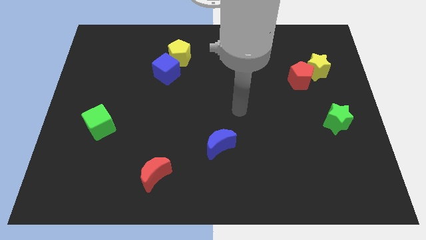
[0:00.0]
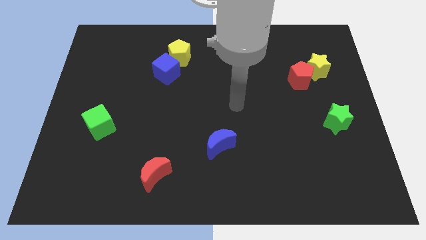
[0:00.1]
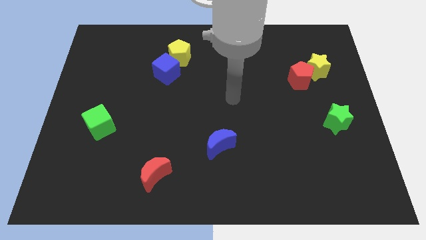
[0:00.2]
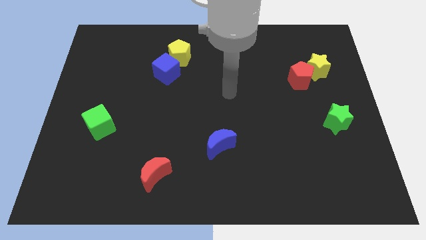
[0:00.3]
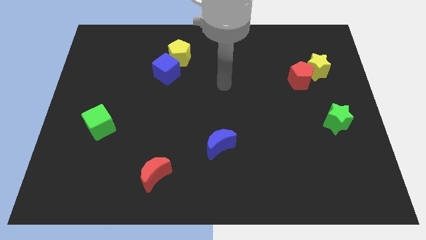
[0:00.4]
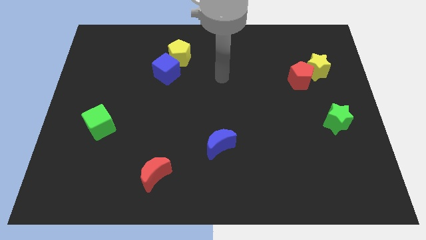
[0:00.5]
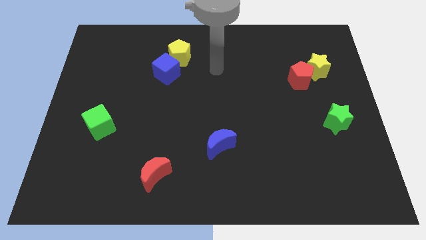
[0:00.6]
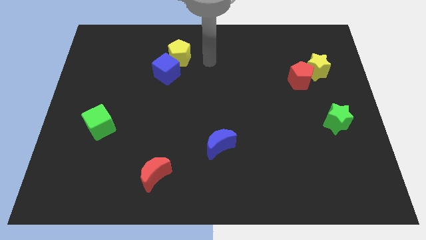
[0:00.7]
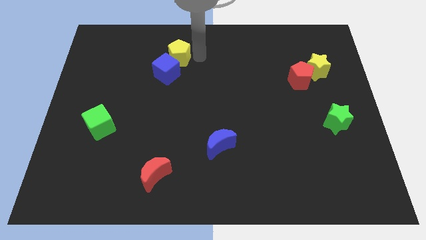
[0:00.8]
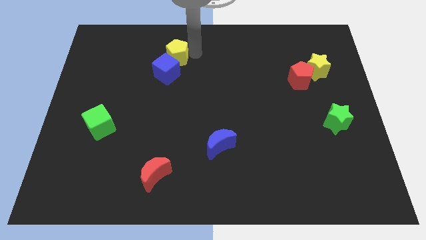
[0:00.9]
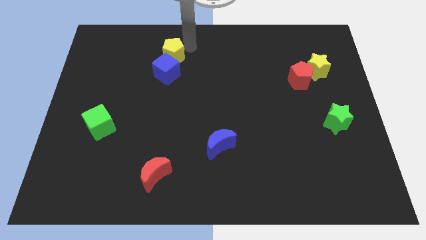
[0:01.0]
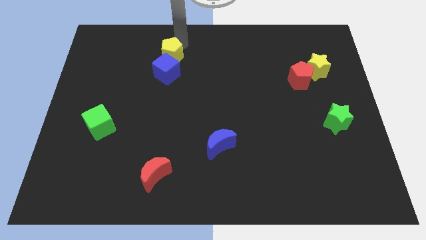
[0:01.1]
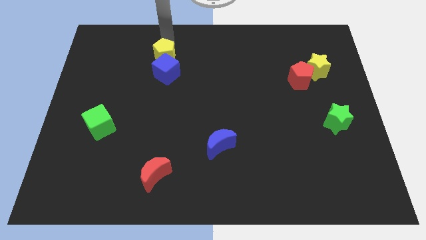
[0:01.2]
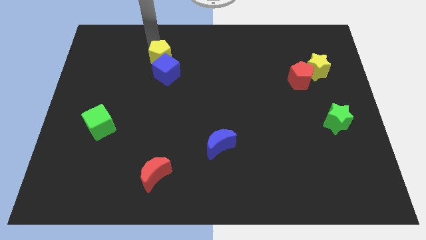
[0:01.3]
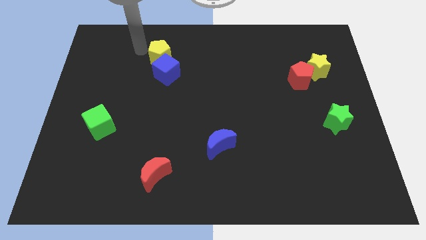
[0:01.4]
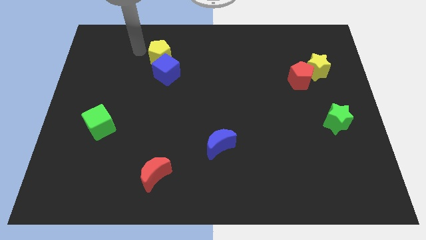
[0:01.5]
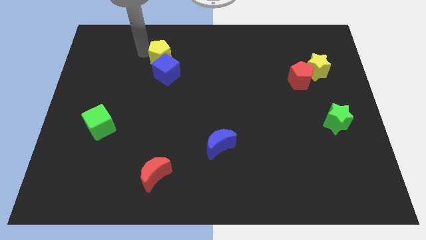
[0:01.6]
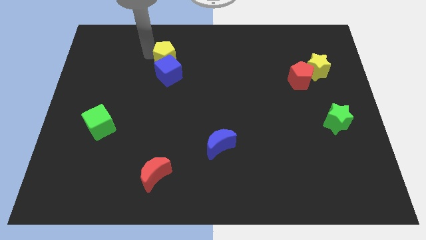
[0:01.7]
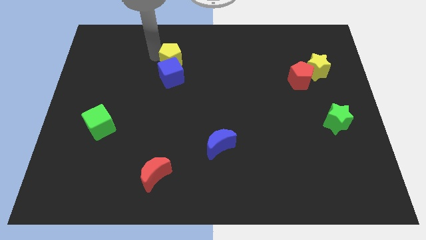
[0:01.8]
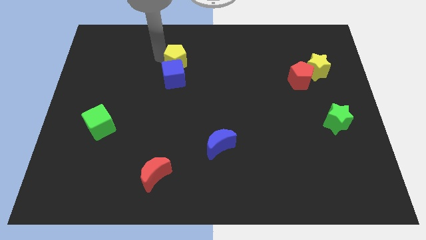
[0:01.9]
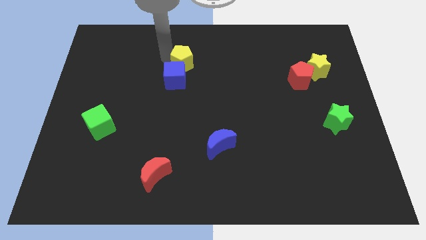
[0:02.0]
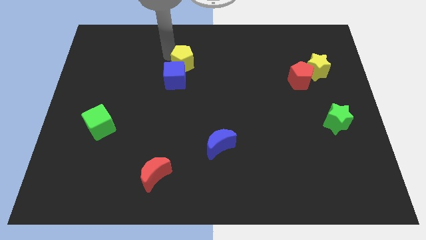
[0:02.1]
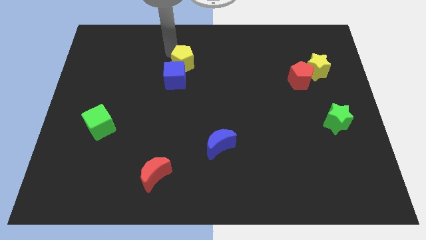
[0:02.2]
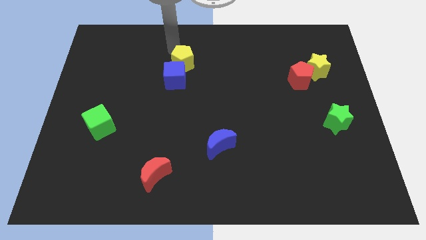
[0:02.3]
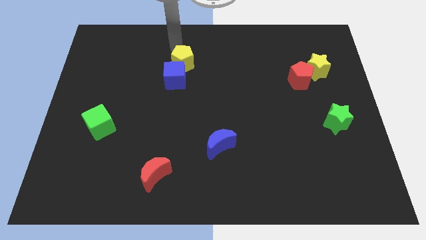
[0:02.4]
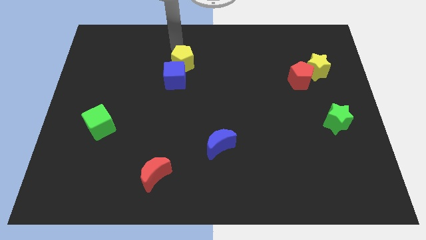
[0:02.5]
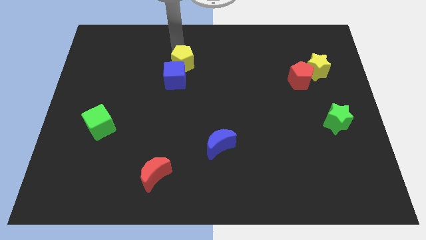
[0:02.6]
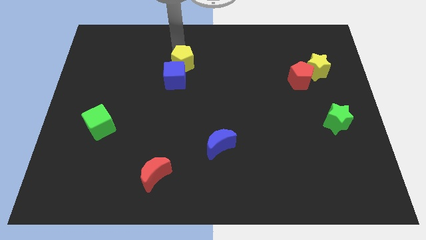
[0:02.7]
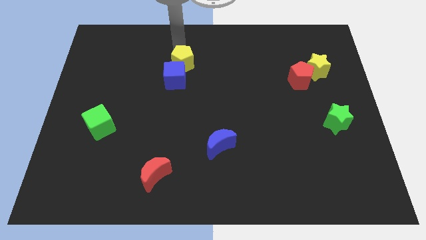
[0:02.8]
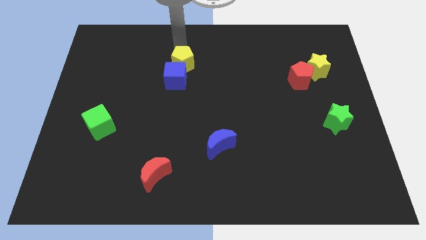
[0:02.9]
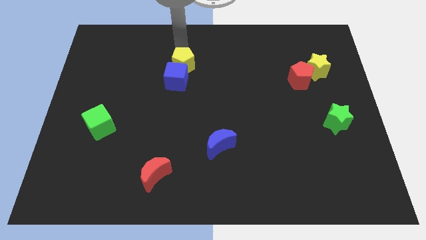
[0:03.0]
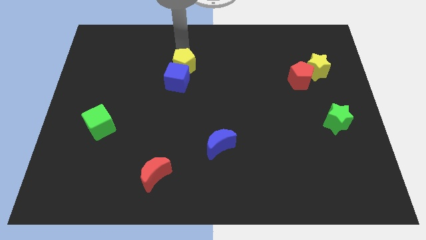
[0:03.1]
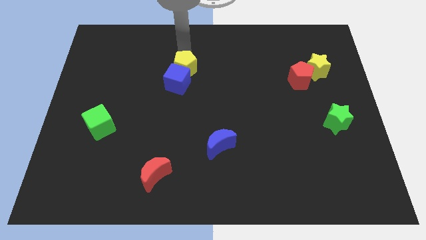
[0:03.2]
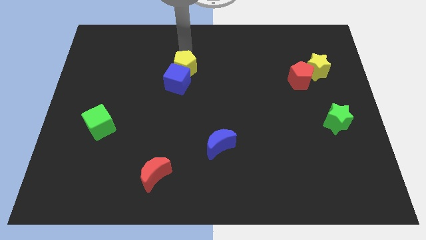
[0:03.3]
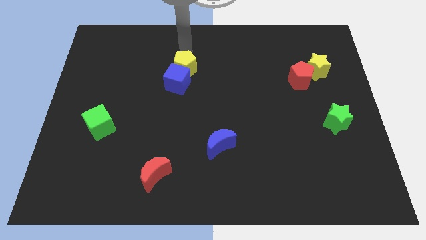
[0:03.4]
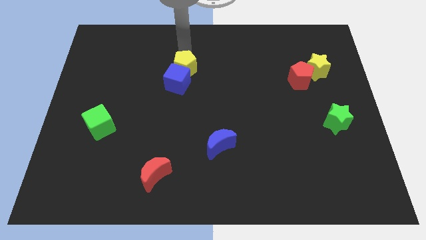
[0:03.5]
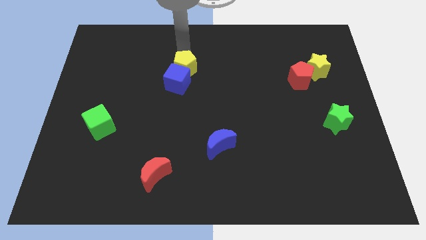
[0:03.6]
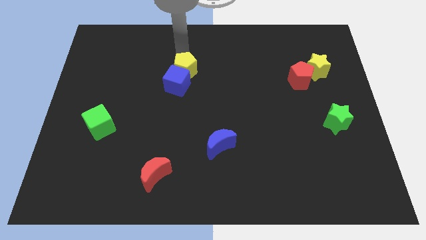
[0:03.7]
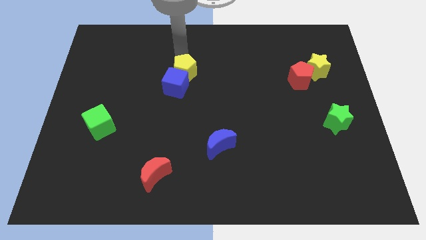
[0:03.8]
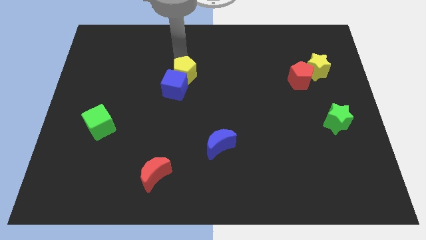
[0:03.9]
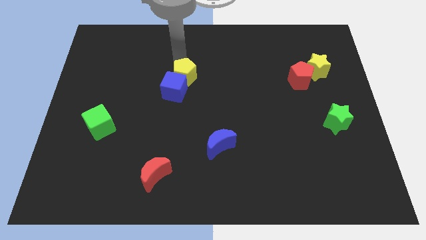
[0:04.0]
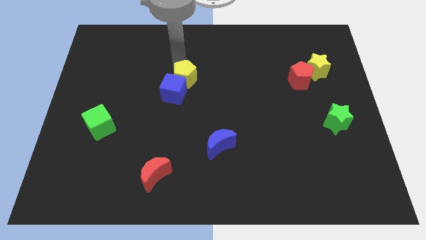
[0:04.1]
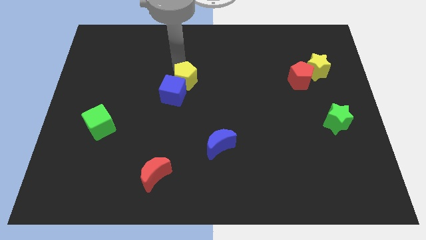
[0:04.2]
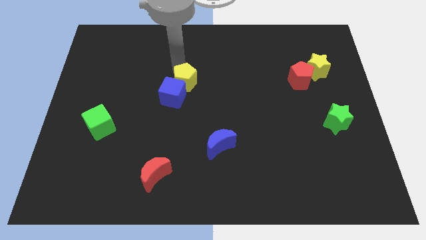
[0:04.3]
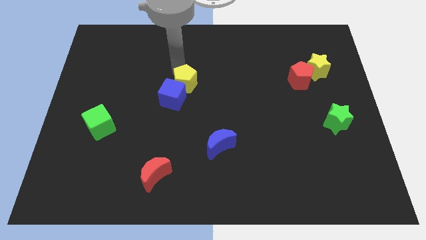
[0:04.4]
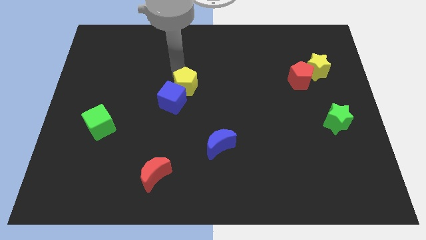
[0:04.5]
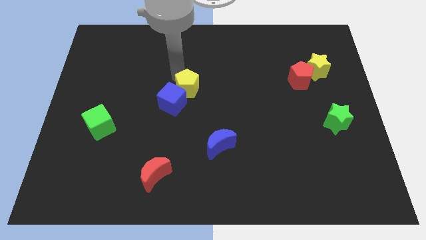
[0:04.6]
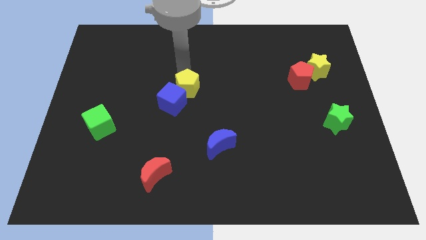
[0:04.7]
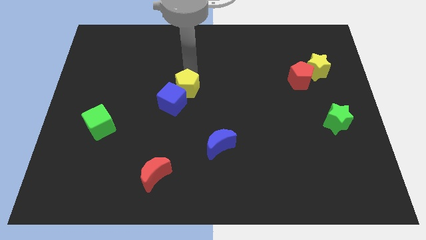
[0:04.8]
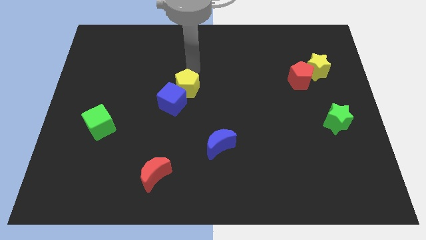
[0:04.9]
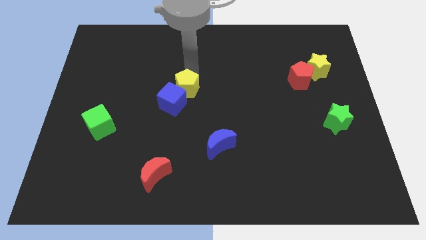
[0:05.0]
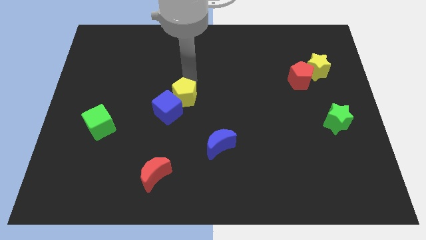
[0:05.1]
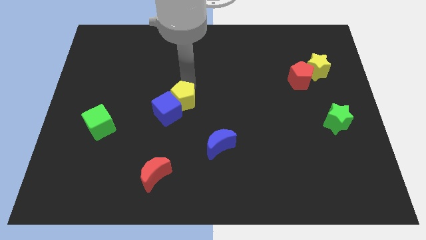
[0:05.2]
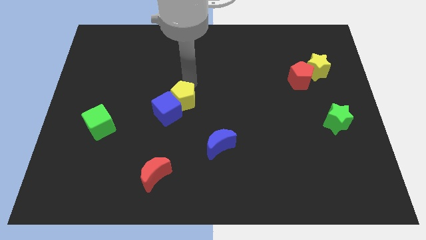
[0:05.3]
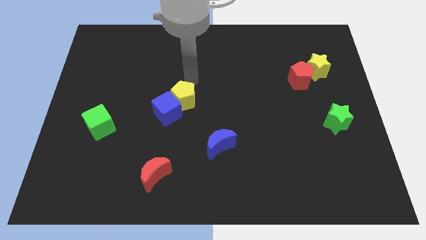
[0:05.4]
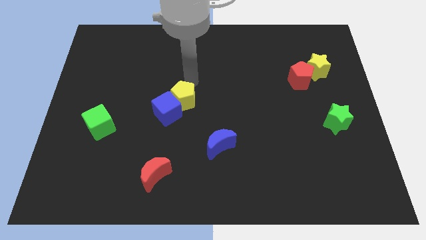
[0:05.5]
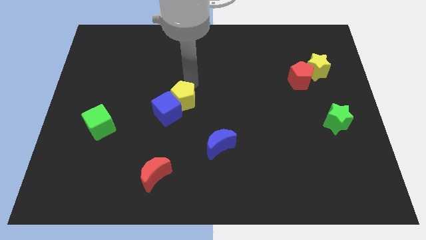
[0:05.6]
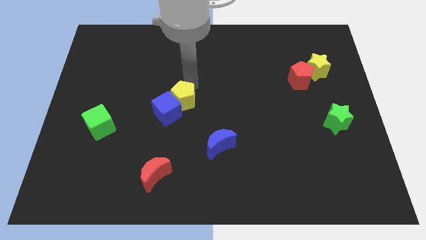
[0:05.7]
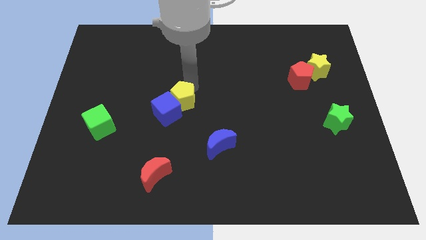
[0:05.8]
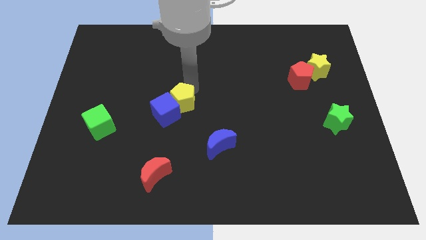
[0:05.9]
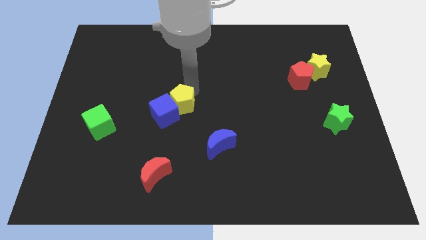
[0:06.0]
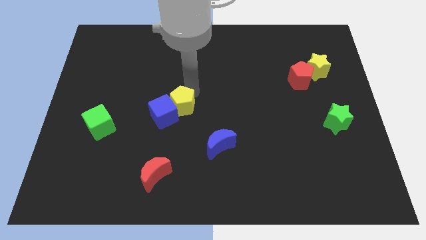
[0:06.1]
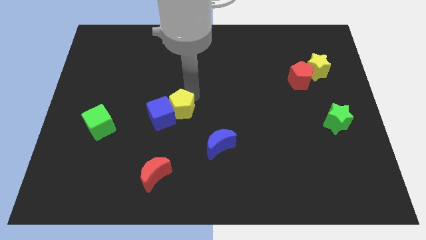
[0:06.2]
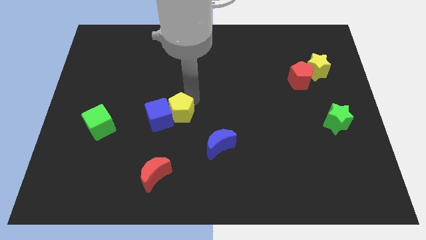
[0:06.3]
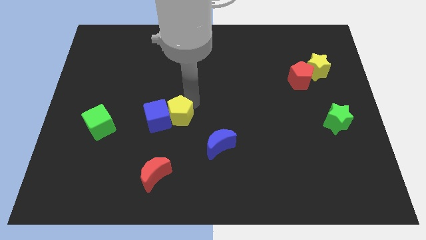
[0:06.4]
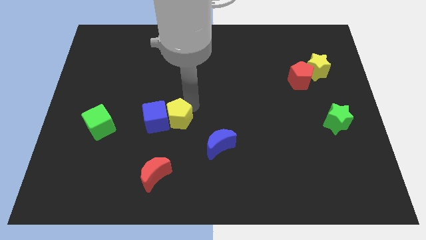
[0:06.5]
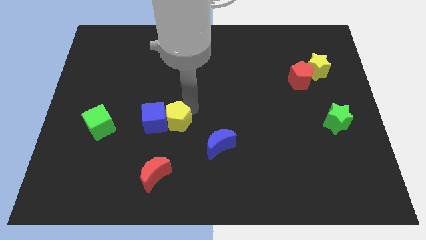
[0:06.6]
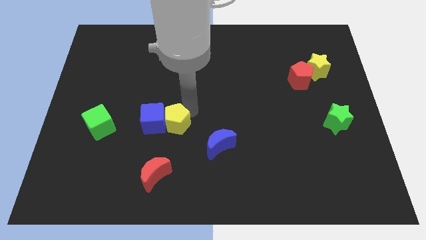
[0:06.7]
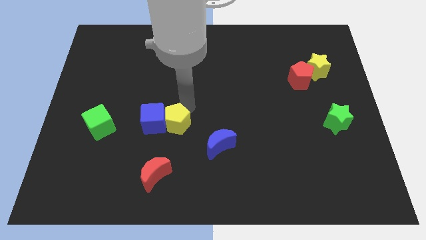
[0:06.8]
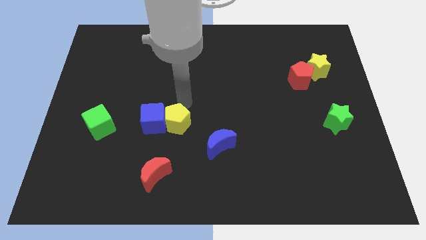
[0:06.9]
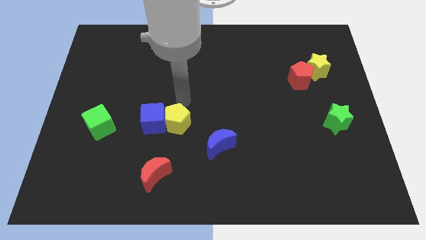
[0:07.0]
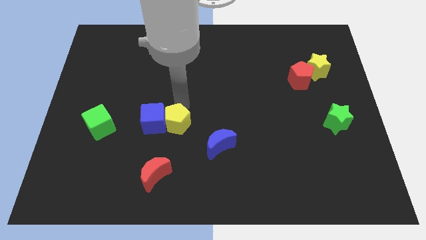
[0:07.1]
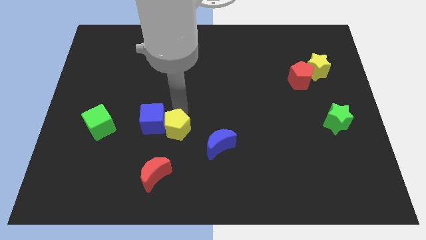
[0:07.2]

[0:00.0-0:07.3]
put the yellow pentagon to the left of the blue moon
